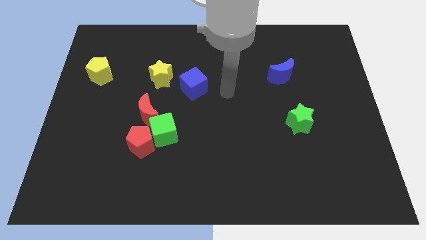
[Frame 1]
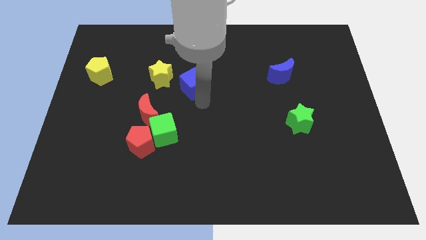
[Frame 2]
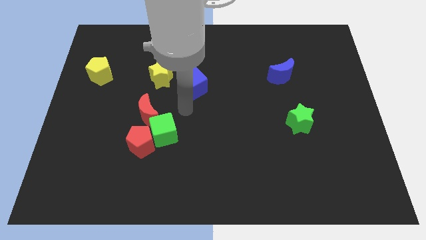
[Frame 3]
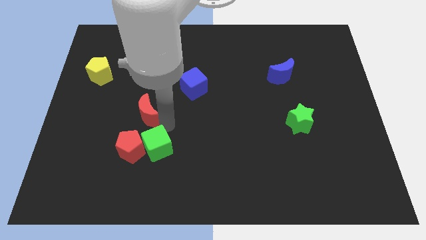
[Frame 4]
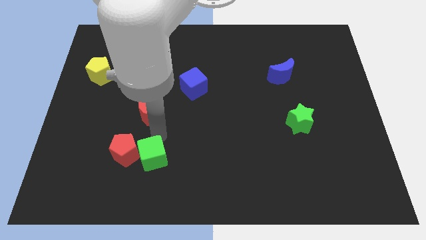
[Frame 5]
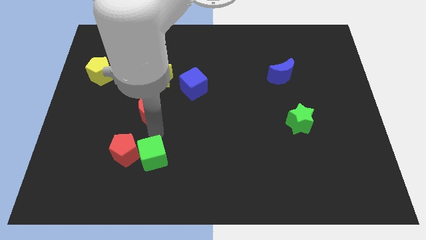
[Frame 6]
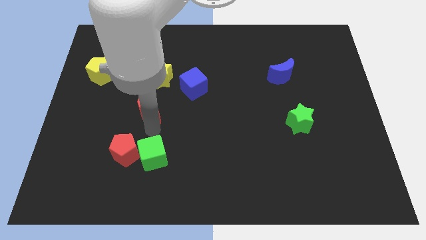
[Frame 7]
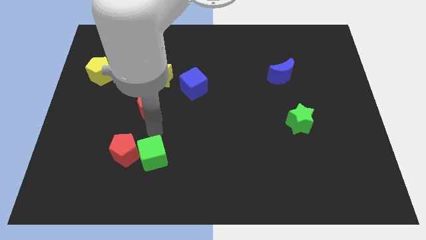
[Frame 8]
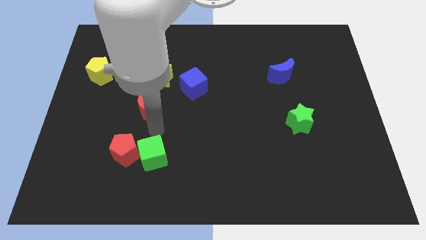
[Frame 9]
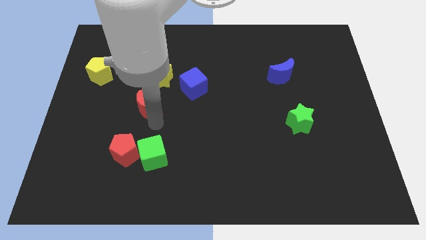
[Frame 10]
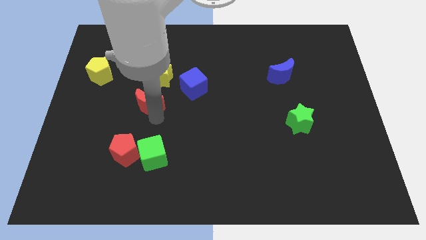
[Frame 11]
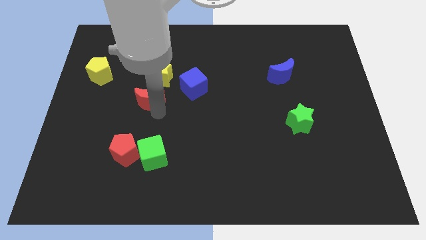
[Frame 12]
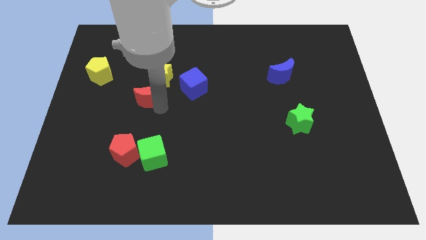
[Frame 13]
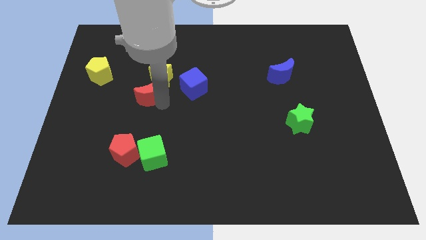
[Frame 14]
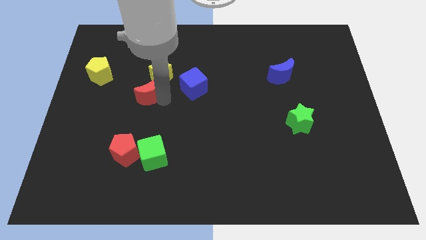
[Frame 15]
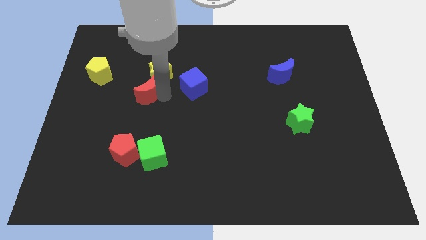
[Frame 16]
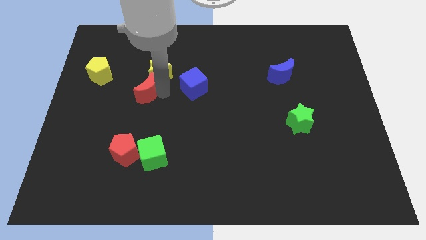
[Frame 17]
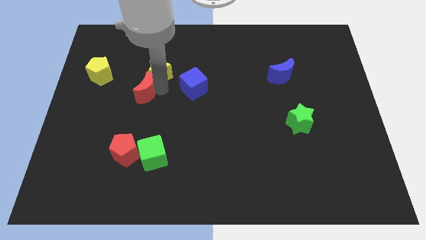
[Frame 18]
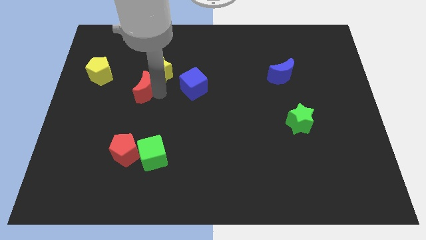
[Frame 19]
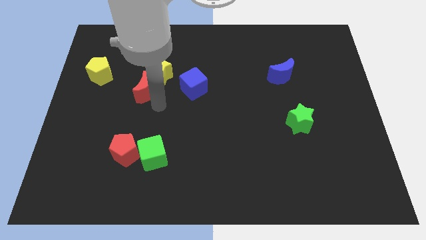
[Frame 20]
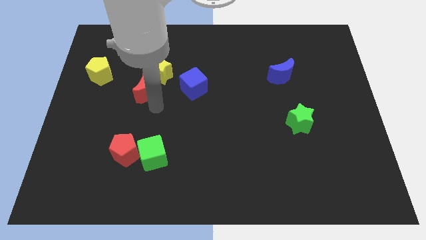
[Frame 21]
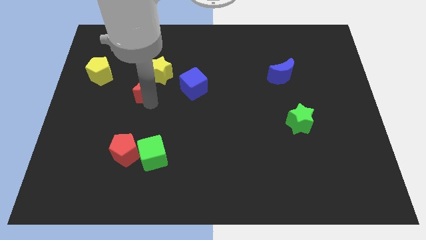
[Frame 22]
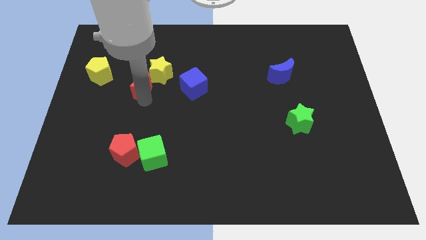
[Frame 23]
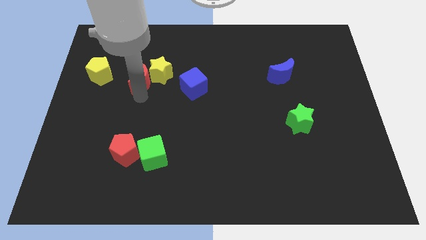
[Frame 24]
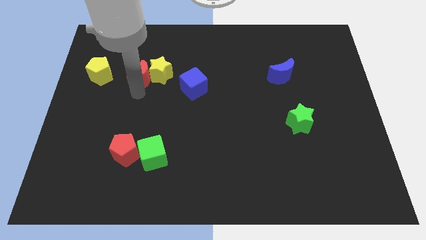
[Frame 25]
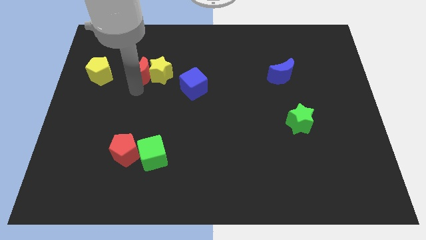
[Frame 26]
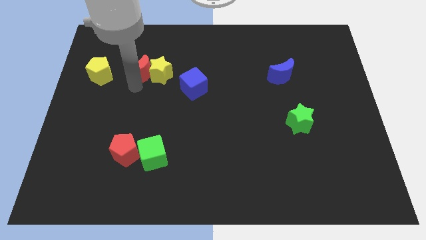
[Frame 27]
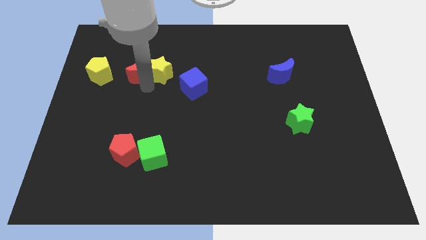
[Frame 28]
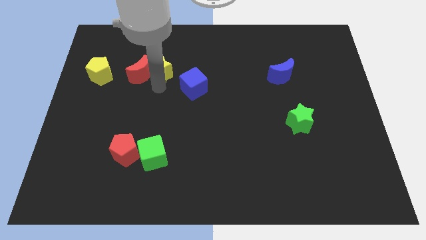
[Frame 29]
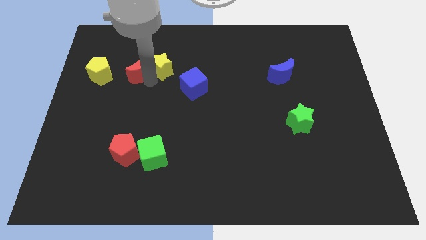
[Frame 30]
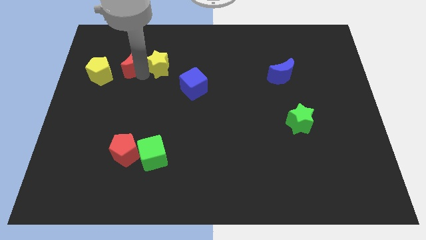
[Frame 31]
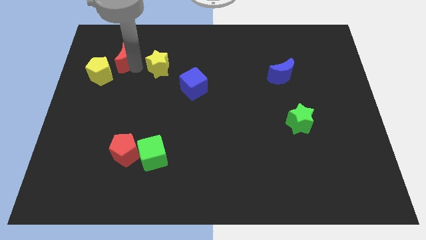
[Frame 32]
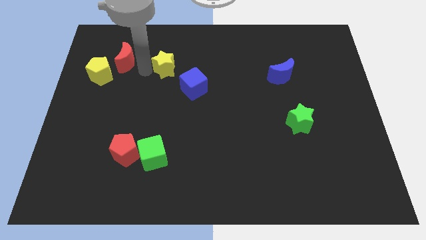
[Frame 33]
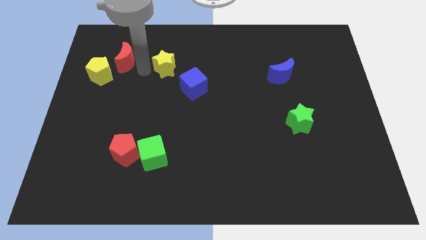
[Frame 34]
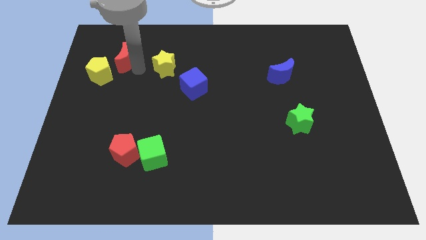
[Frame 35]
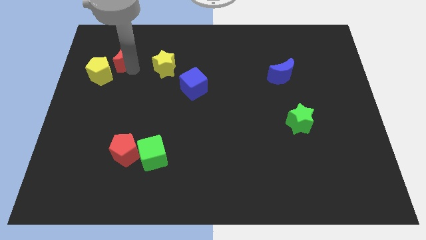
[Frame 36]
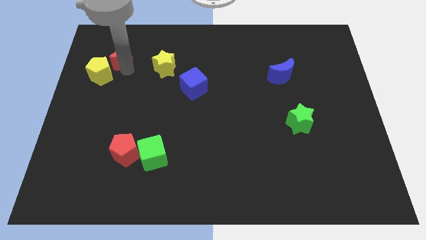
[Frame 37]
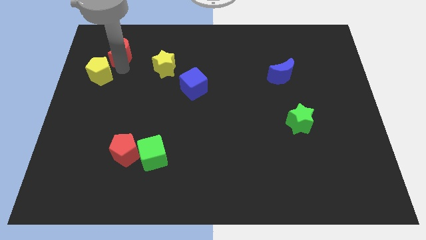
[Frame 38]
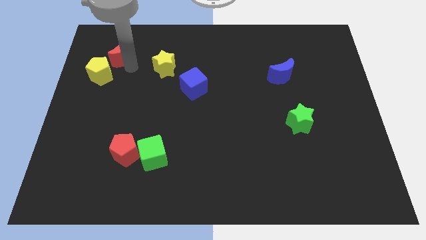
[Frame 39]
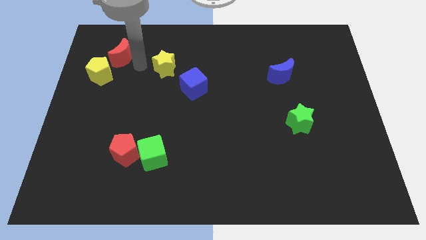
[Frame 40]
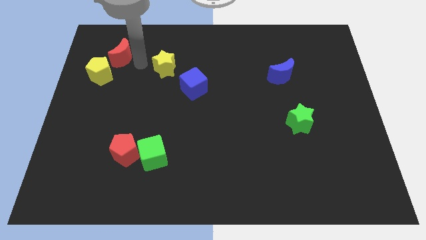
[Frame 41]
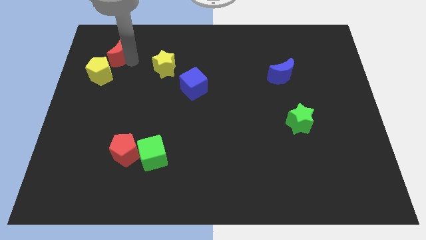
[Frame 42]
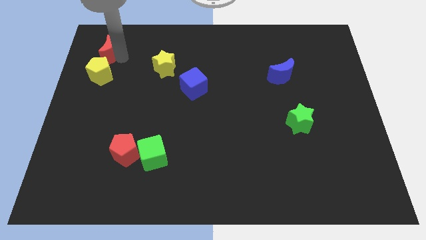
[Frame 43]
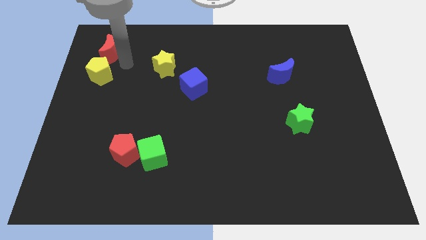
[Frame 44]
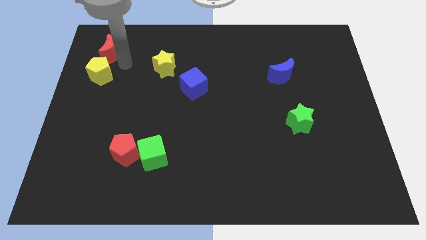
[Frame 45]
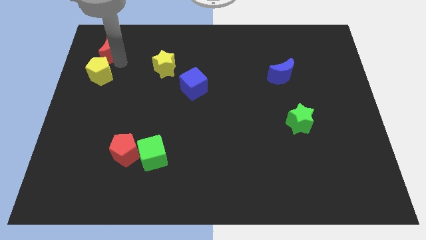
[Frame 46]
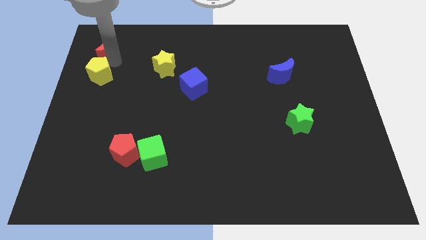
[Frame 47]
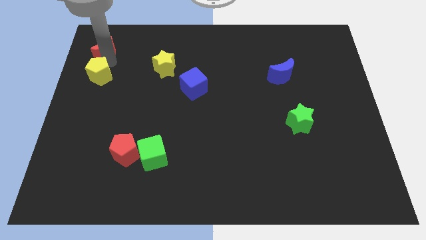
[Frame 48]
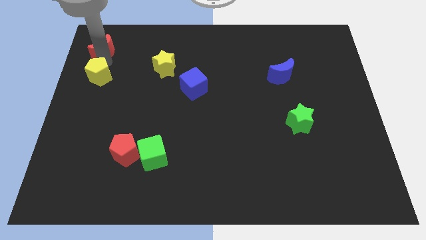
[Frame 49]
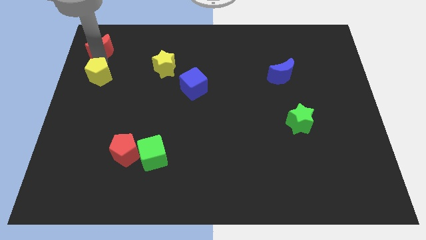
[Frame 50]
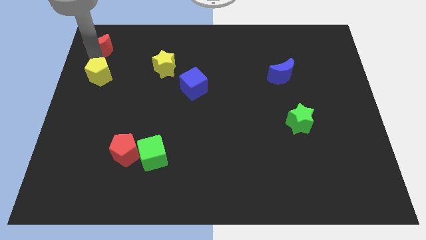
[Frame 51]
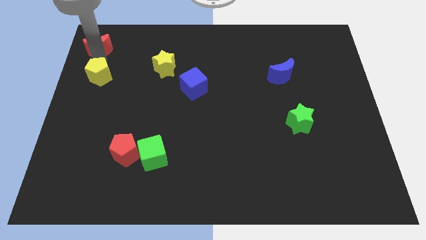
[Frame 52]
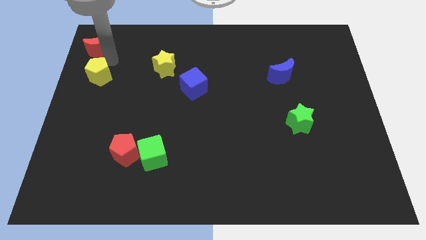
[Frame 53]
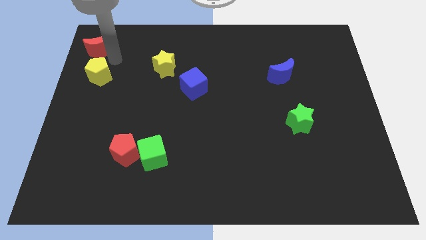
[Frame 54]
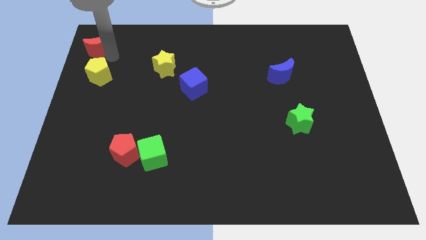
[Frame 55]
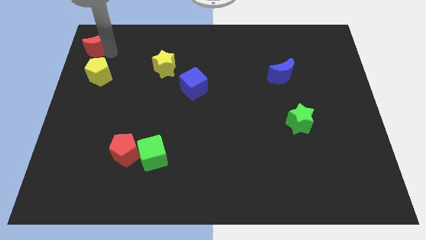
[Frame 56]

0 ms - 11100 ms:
push the red moon to the upper left corner
